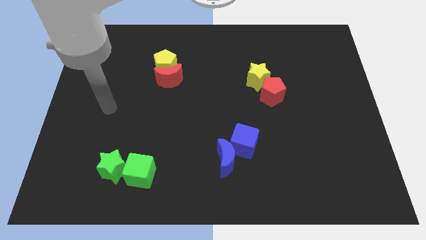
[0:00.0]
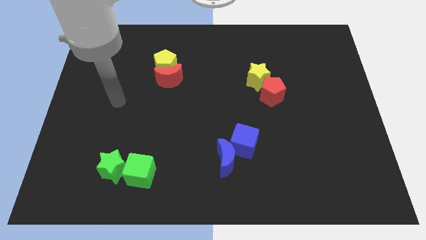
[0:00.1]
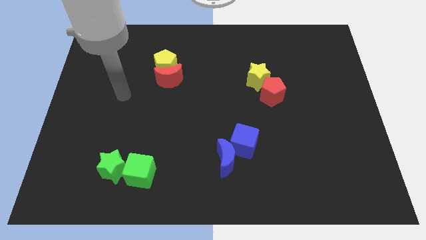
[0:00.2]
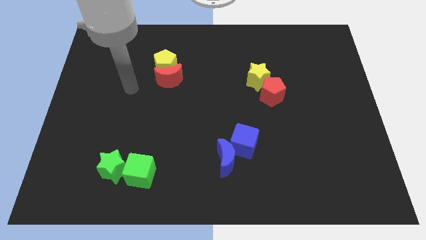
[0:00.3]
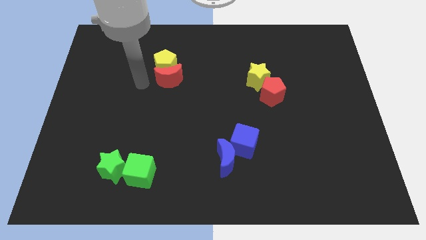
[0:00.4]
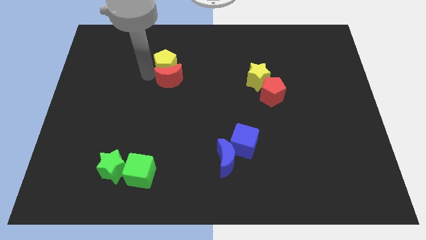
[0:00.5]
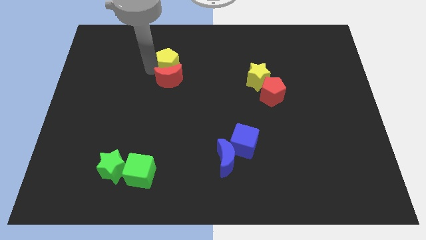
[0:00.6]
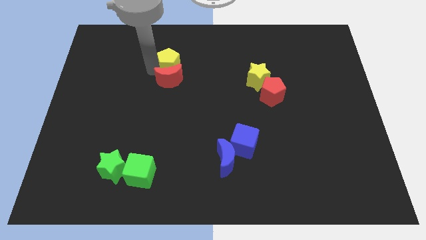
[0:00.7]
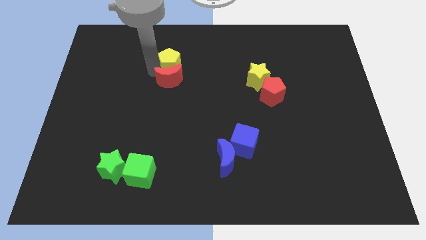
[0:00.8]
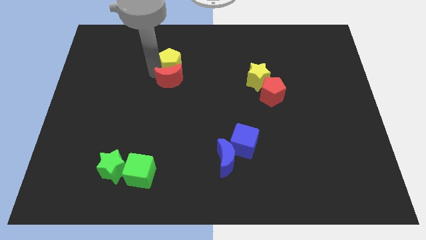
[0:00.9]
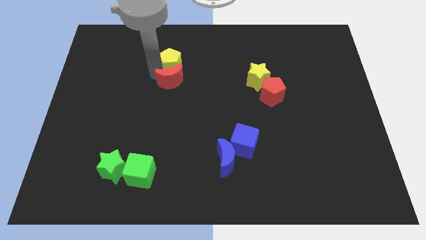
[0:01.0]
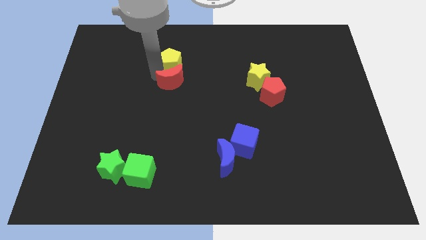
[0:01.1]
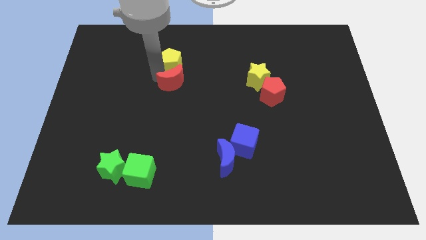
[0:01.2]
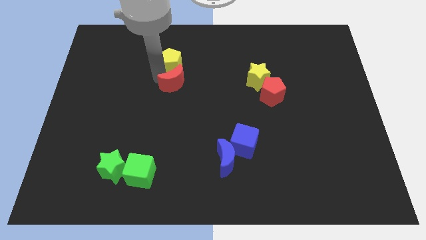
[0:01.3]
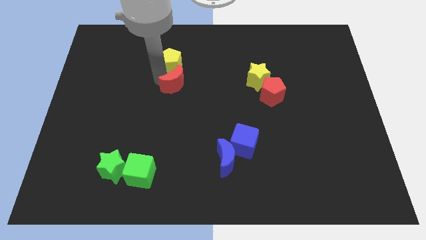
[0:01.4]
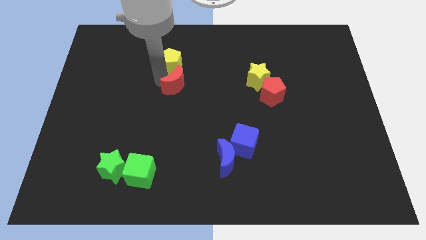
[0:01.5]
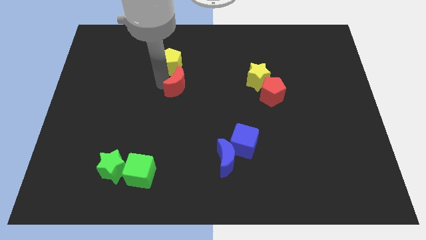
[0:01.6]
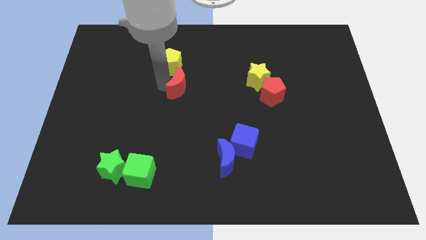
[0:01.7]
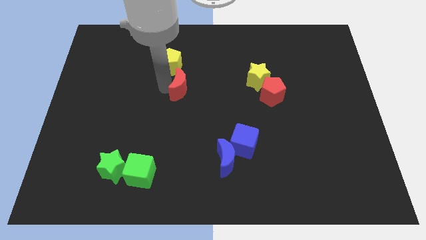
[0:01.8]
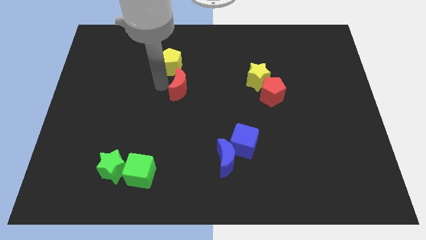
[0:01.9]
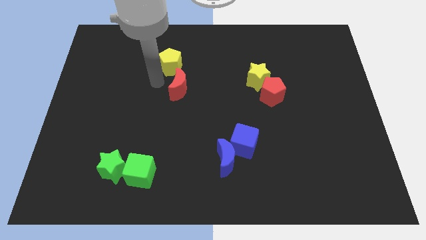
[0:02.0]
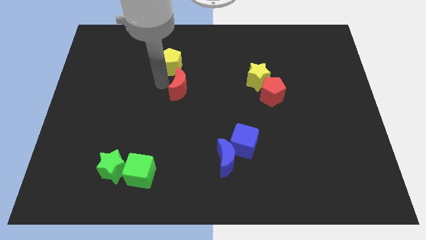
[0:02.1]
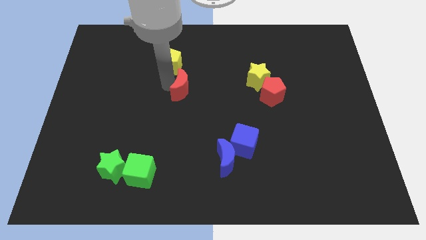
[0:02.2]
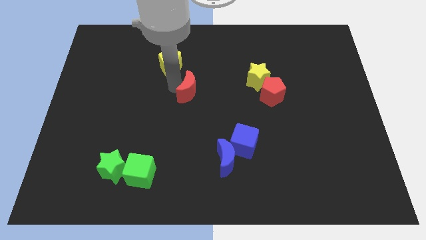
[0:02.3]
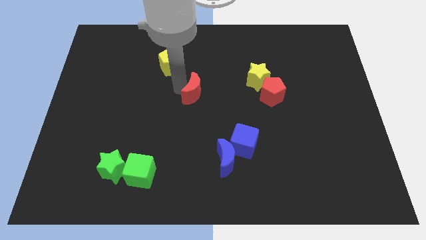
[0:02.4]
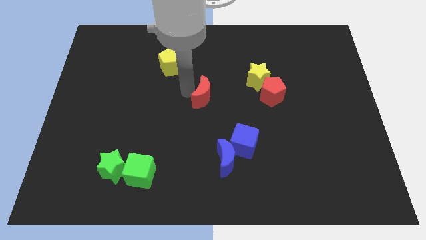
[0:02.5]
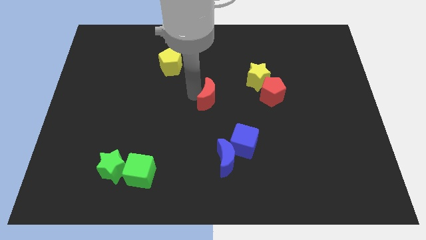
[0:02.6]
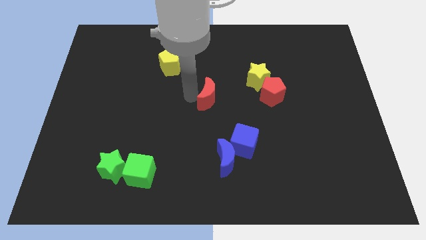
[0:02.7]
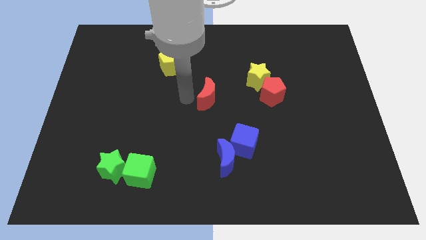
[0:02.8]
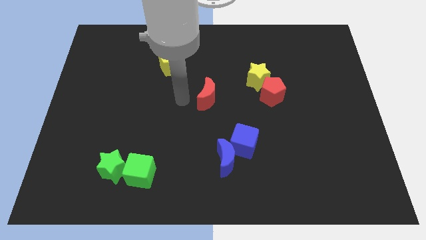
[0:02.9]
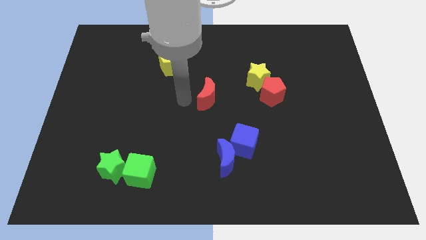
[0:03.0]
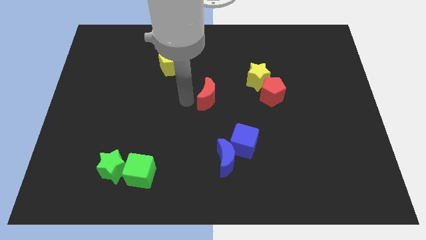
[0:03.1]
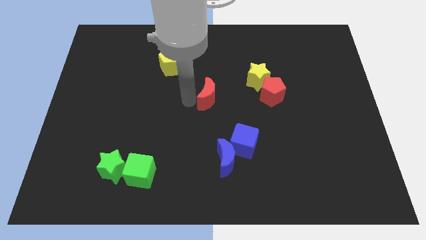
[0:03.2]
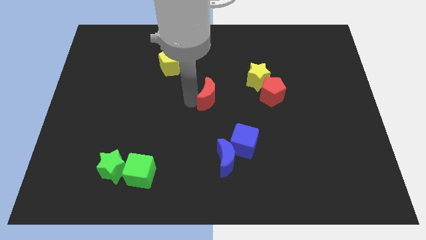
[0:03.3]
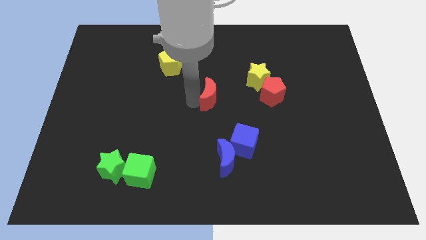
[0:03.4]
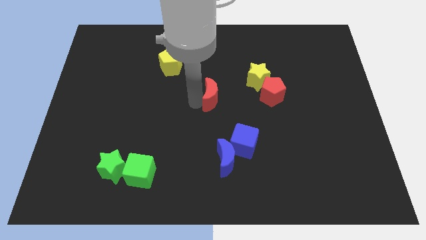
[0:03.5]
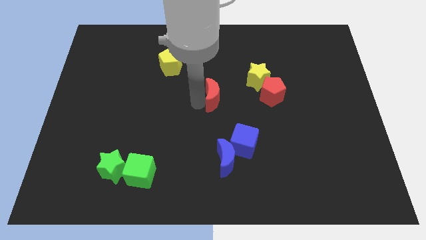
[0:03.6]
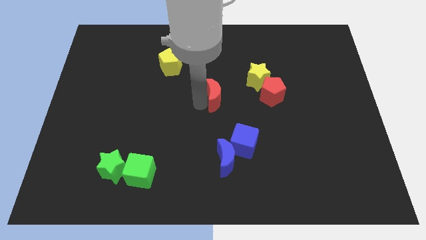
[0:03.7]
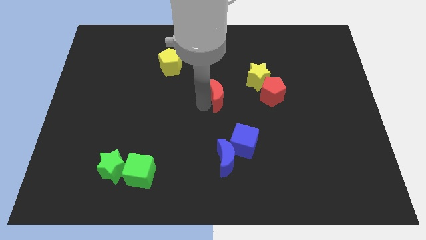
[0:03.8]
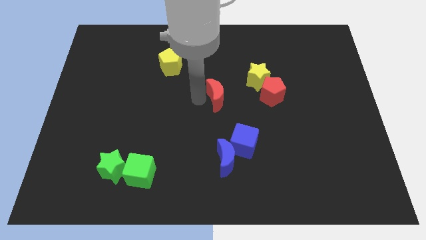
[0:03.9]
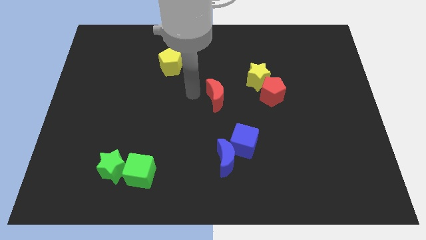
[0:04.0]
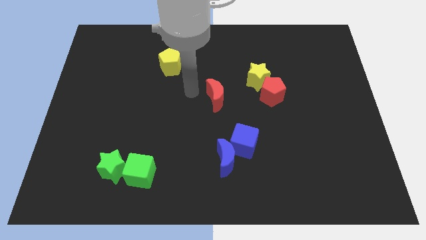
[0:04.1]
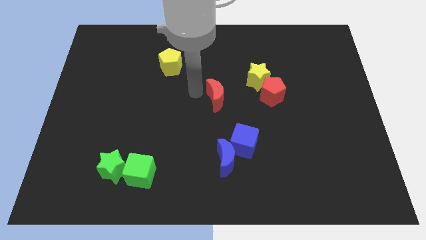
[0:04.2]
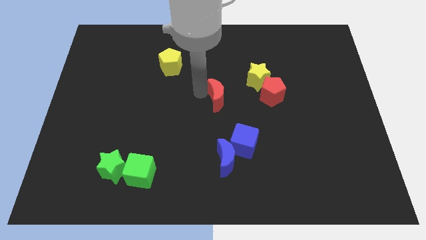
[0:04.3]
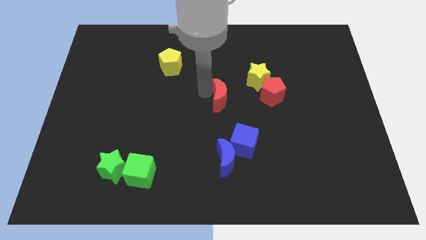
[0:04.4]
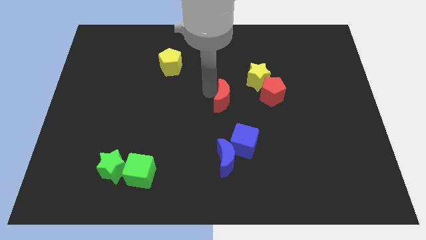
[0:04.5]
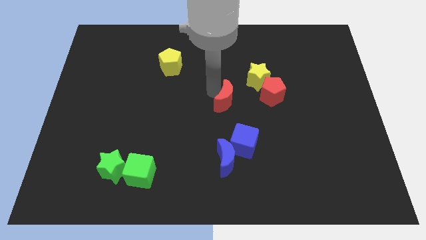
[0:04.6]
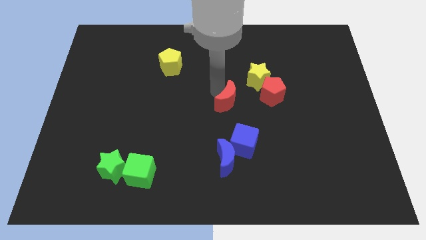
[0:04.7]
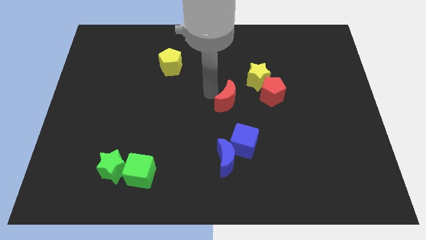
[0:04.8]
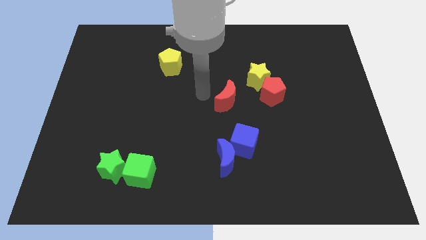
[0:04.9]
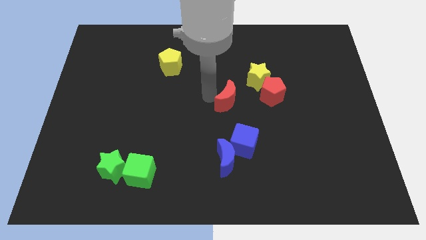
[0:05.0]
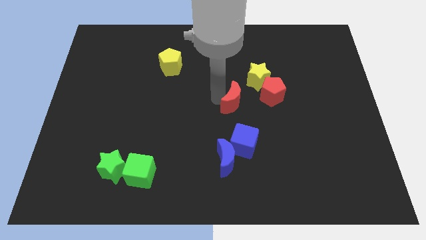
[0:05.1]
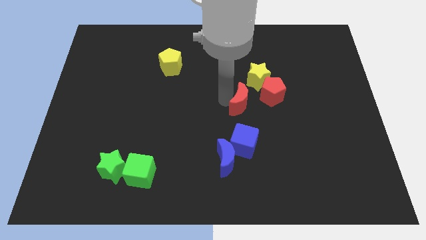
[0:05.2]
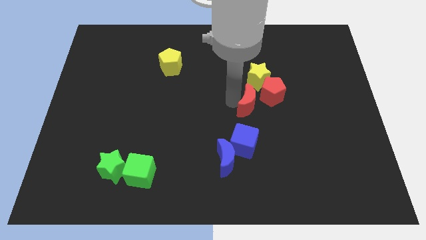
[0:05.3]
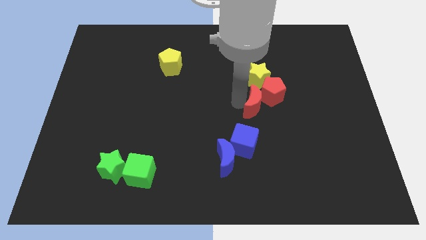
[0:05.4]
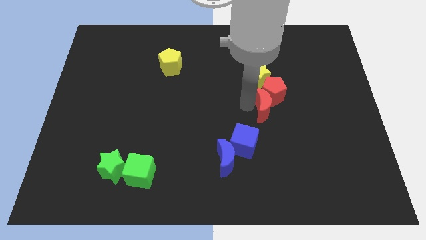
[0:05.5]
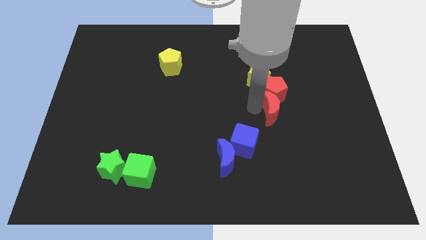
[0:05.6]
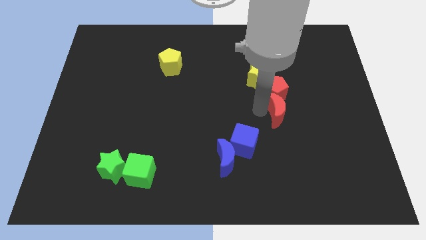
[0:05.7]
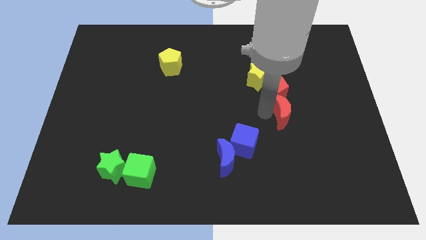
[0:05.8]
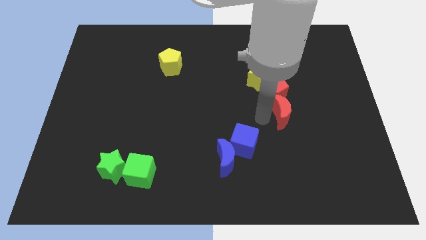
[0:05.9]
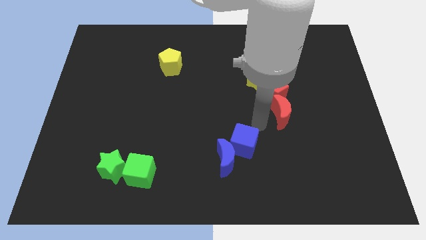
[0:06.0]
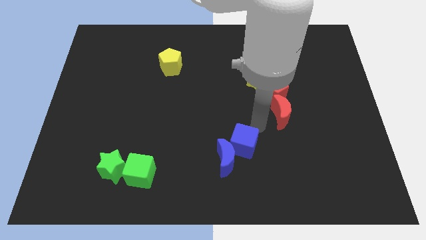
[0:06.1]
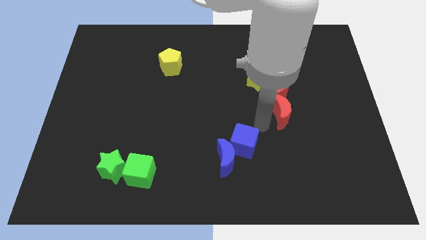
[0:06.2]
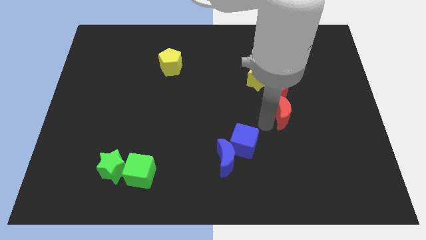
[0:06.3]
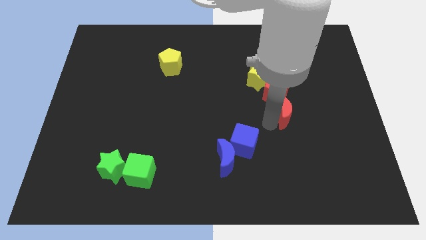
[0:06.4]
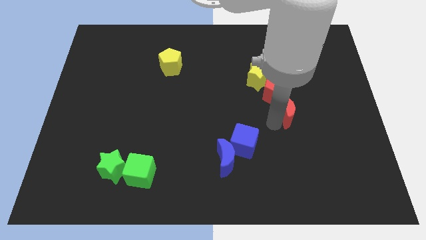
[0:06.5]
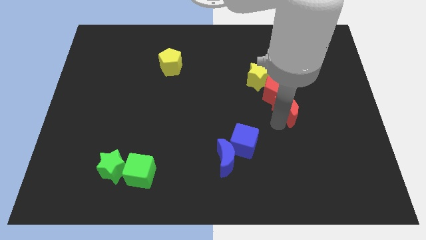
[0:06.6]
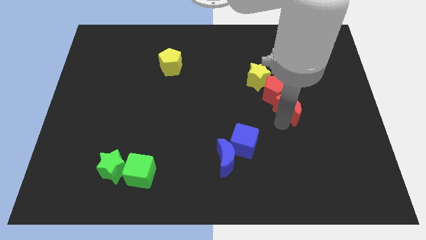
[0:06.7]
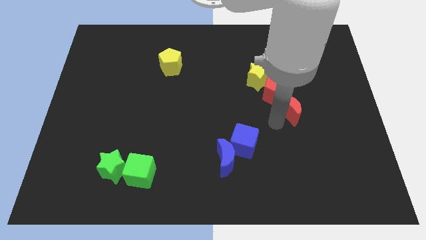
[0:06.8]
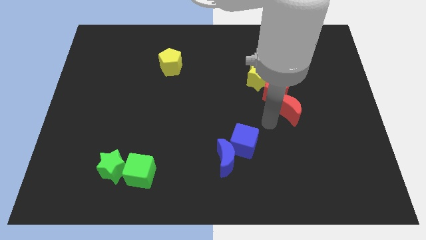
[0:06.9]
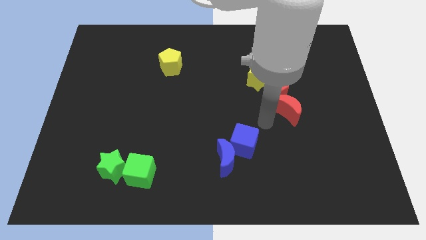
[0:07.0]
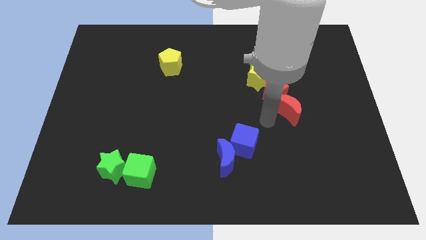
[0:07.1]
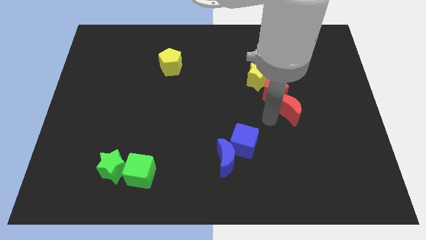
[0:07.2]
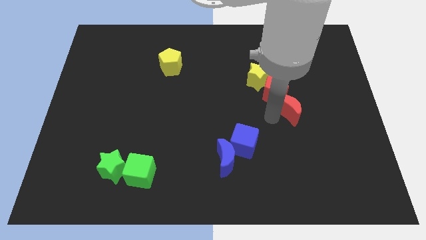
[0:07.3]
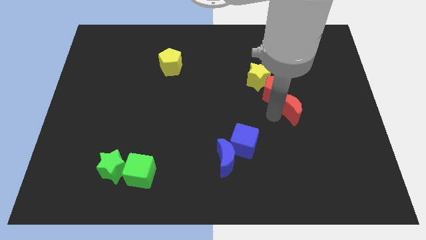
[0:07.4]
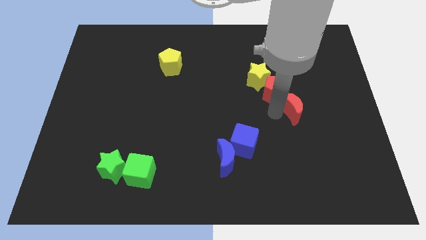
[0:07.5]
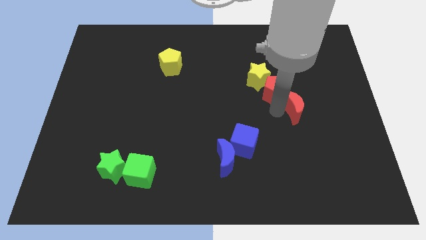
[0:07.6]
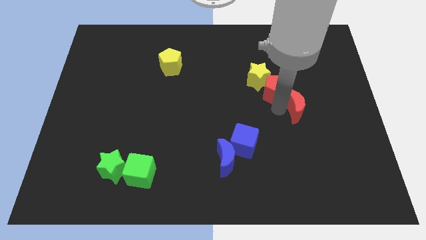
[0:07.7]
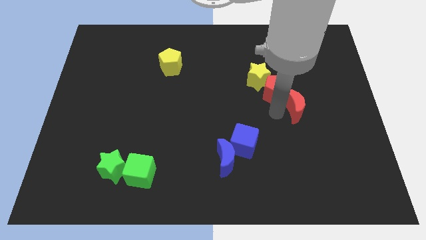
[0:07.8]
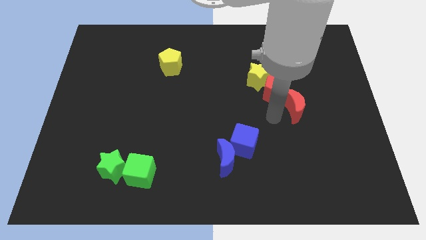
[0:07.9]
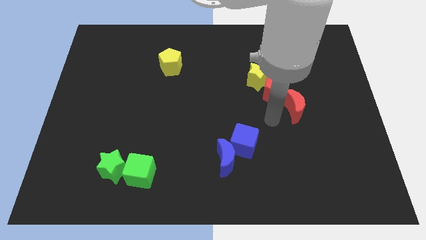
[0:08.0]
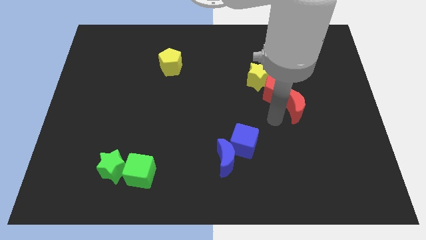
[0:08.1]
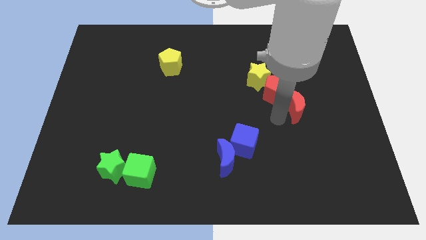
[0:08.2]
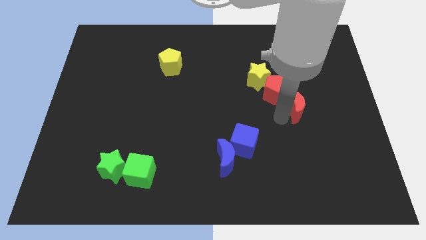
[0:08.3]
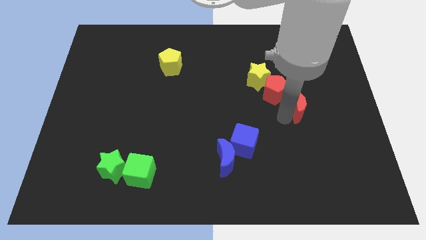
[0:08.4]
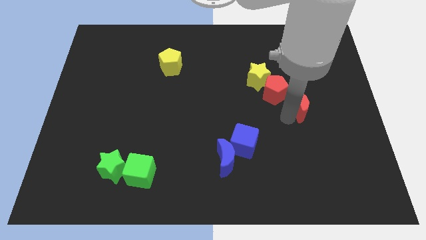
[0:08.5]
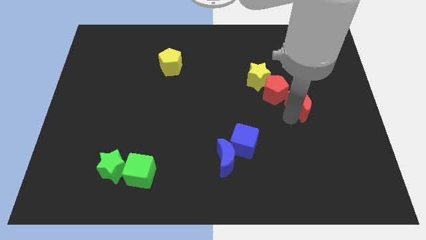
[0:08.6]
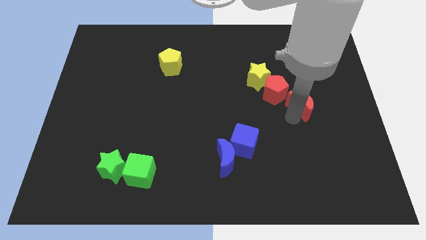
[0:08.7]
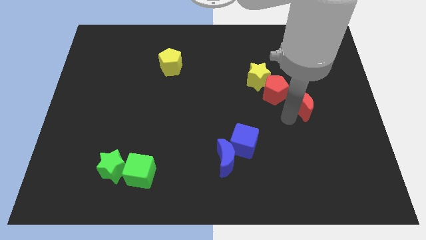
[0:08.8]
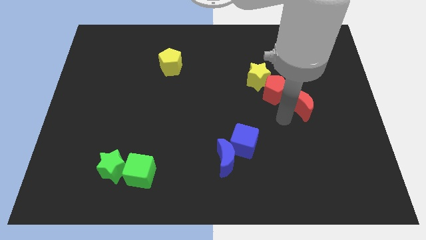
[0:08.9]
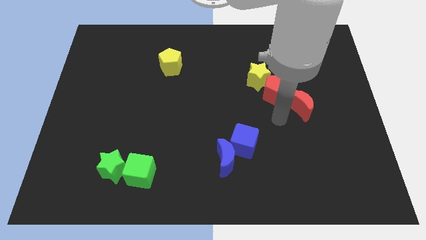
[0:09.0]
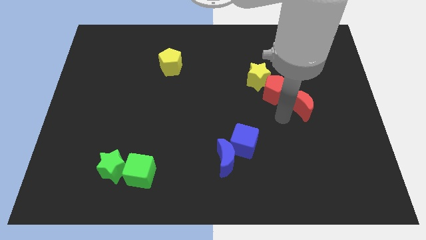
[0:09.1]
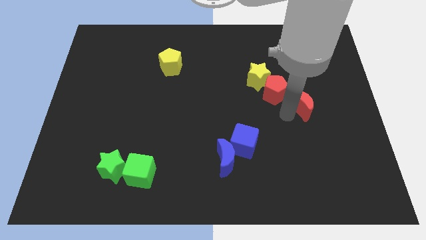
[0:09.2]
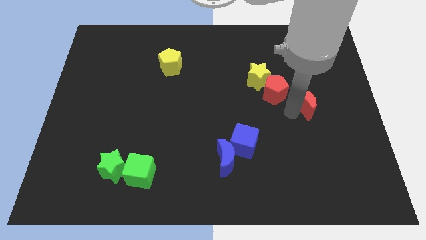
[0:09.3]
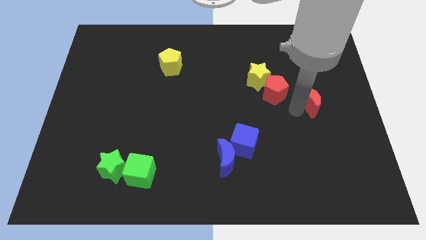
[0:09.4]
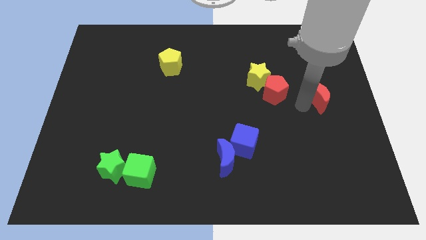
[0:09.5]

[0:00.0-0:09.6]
push the red moon to the right side
